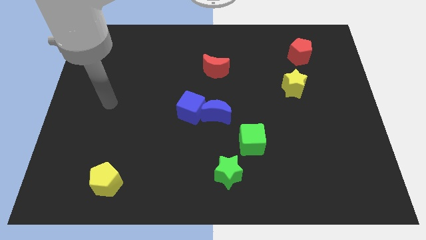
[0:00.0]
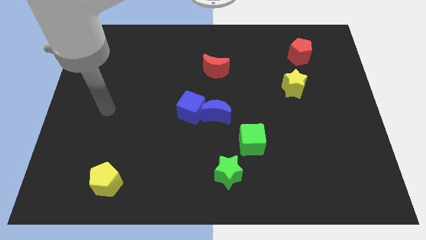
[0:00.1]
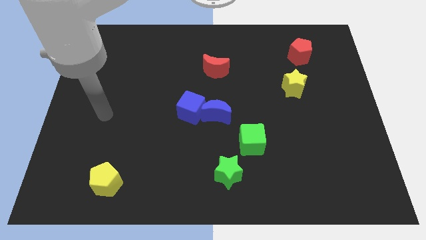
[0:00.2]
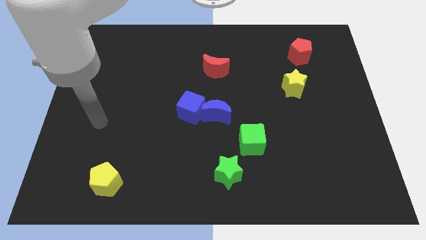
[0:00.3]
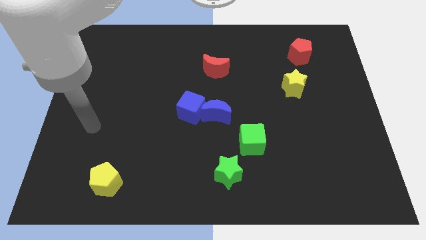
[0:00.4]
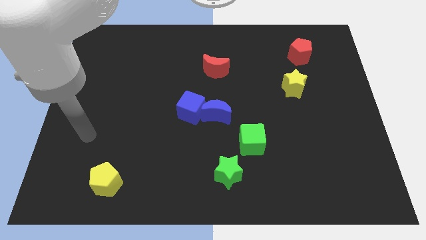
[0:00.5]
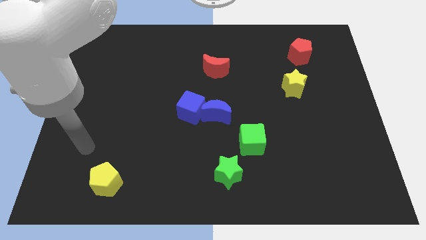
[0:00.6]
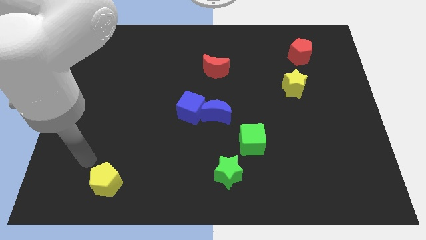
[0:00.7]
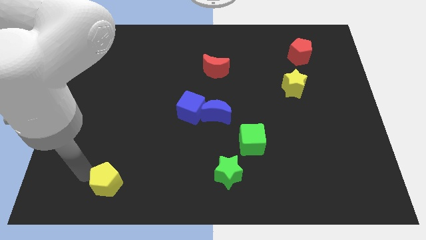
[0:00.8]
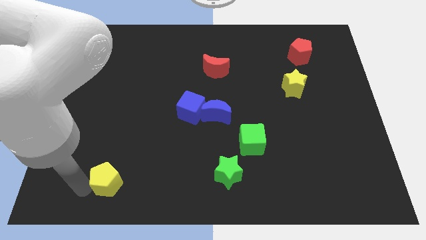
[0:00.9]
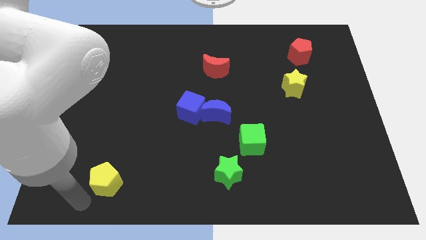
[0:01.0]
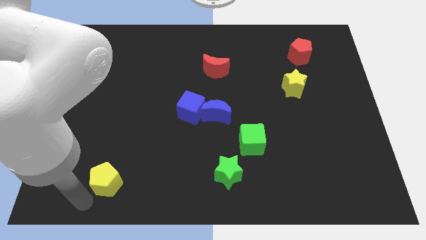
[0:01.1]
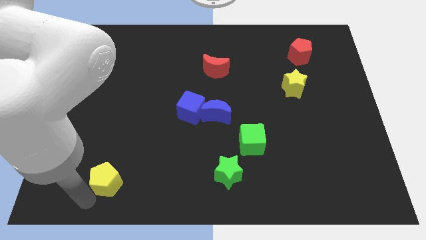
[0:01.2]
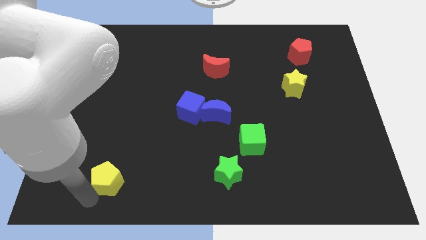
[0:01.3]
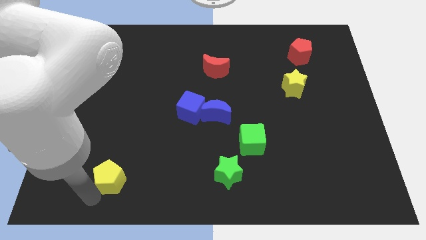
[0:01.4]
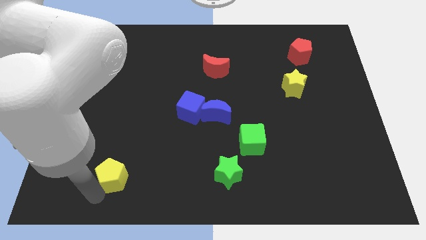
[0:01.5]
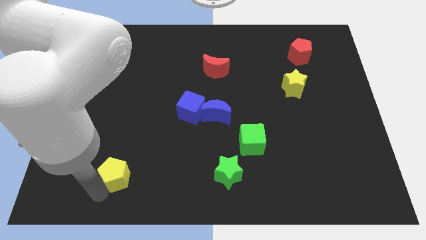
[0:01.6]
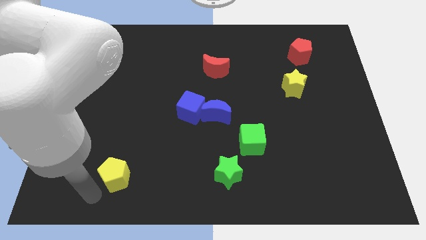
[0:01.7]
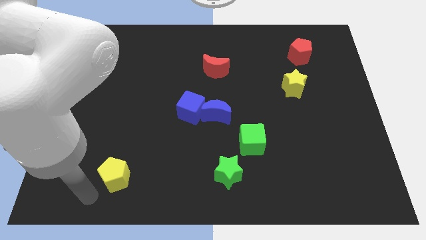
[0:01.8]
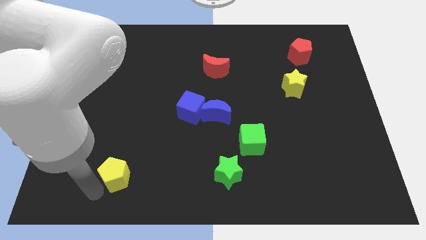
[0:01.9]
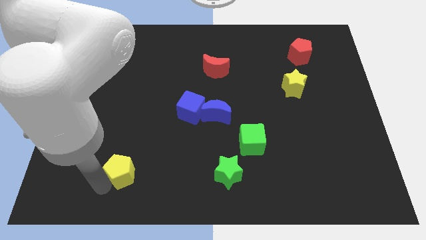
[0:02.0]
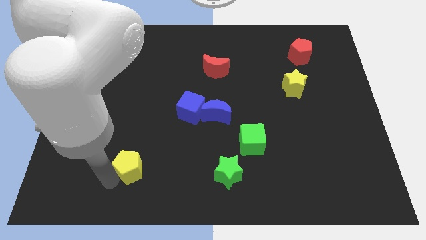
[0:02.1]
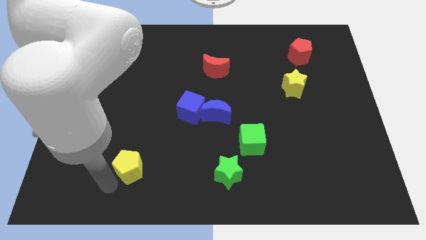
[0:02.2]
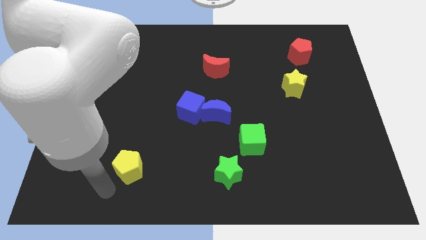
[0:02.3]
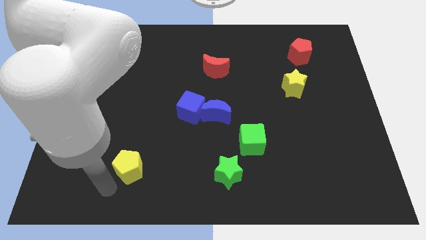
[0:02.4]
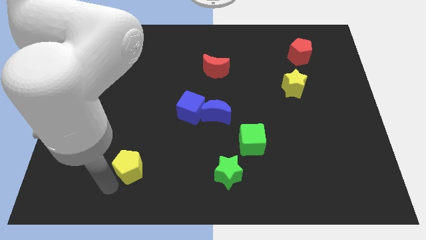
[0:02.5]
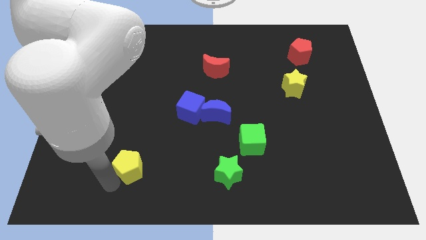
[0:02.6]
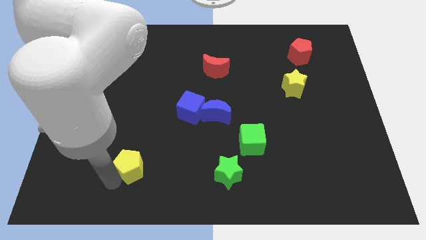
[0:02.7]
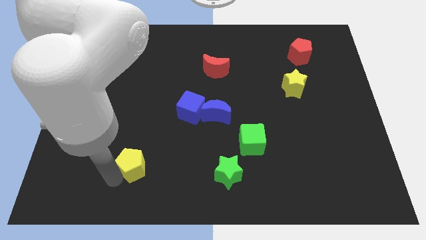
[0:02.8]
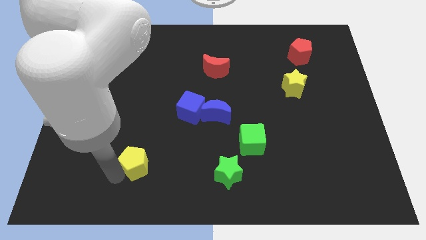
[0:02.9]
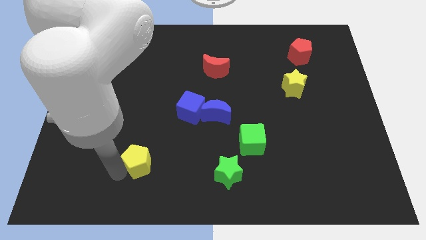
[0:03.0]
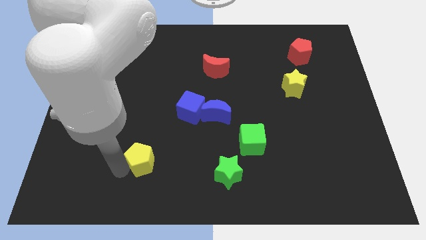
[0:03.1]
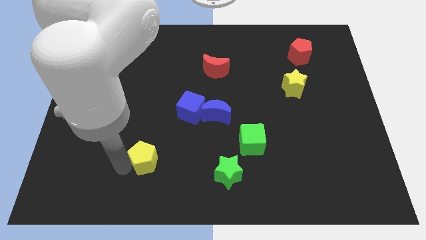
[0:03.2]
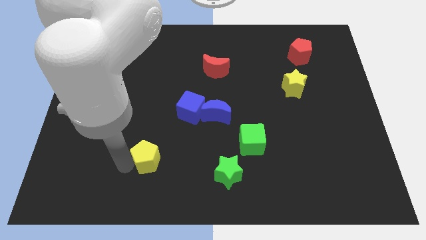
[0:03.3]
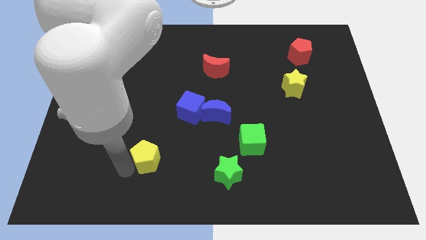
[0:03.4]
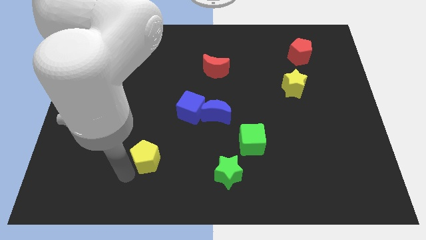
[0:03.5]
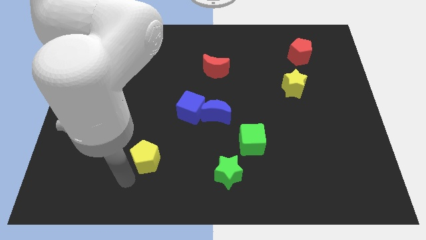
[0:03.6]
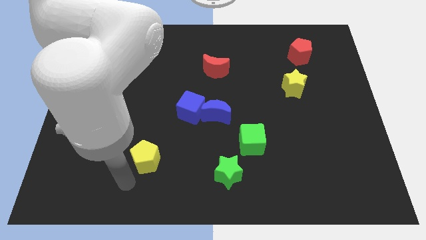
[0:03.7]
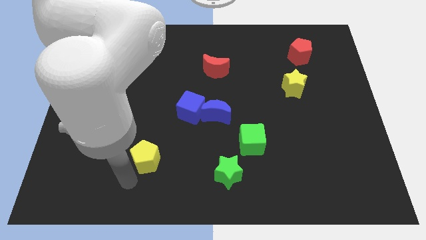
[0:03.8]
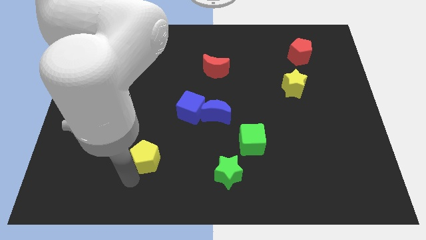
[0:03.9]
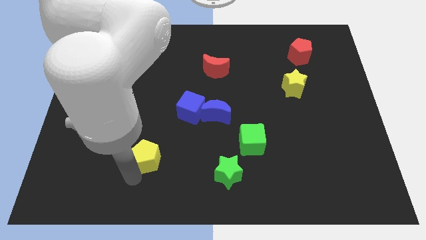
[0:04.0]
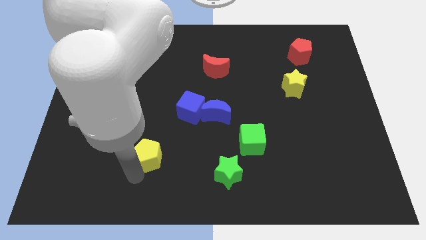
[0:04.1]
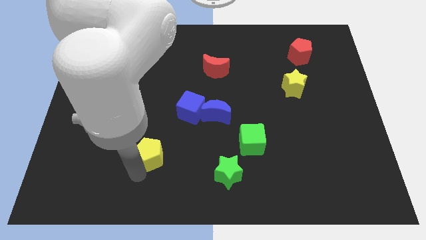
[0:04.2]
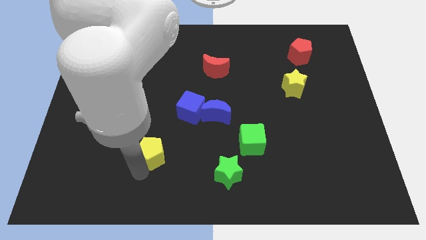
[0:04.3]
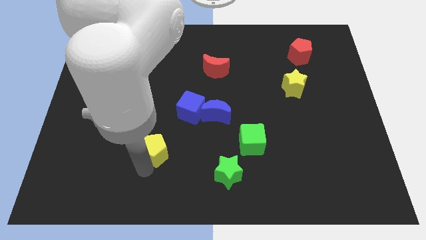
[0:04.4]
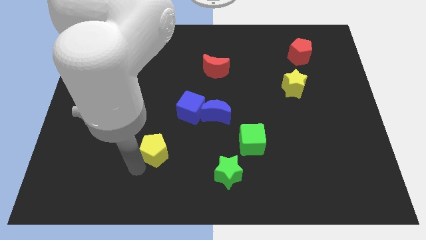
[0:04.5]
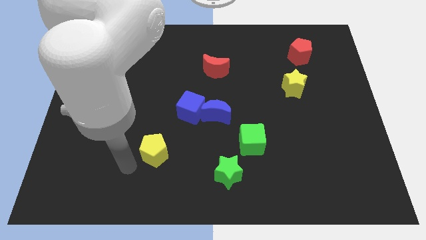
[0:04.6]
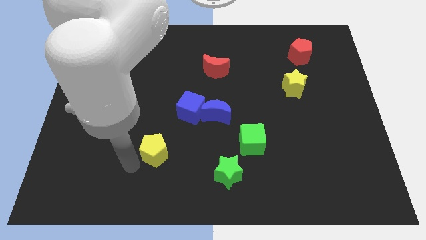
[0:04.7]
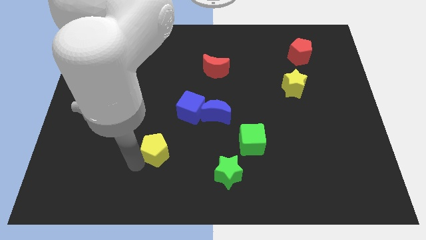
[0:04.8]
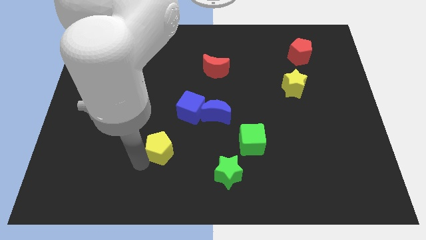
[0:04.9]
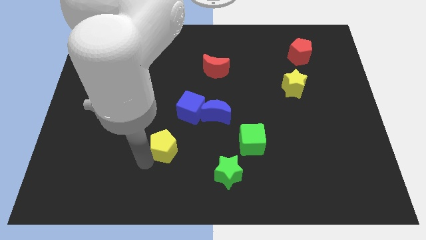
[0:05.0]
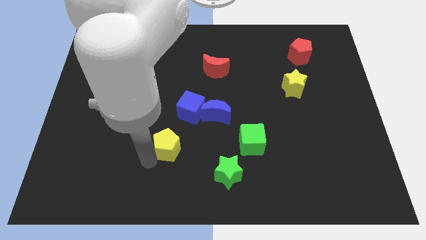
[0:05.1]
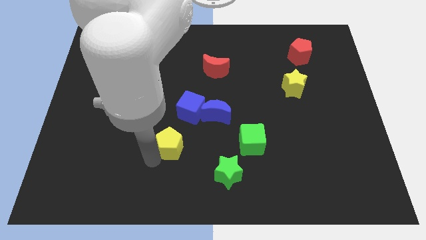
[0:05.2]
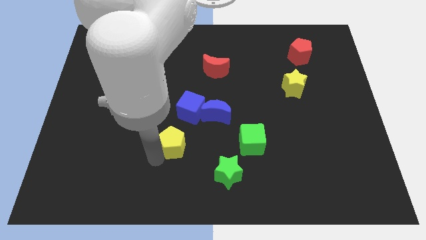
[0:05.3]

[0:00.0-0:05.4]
move the yellow pentagon to the bottom left side of the blue moon

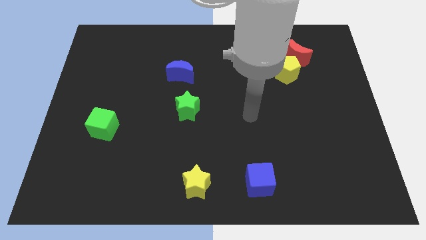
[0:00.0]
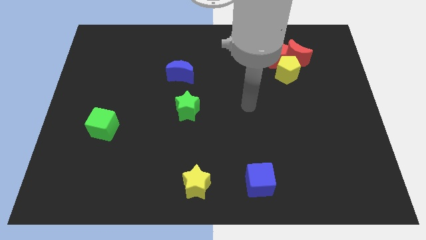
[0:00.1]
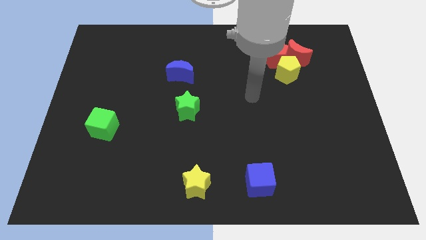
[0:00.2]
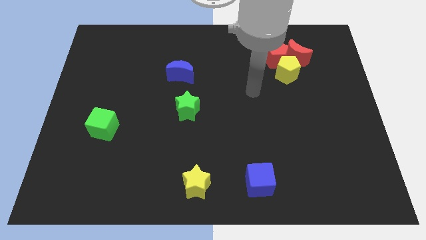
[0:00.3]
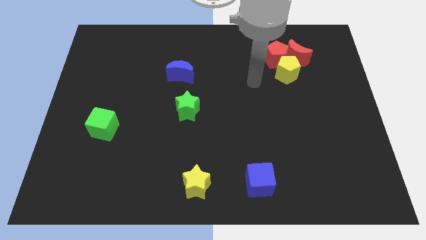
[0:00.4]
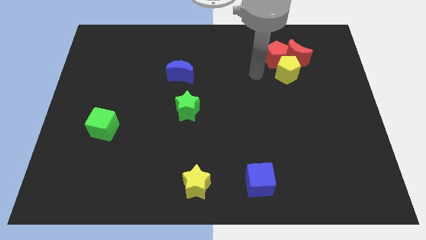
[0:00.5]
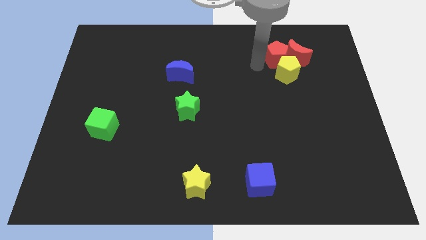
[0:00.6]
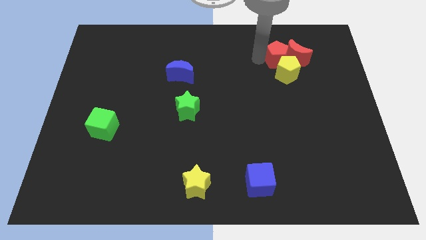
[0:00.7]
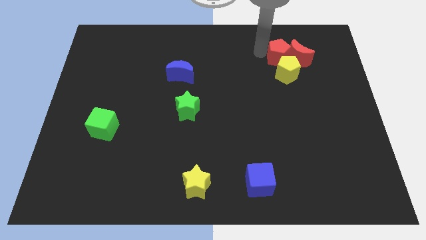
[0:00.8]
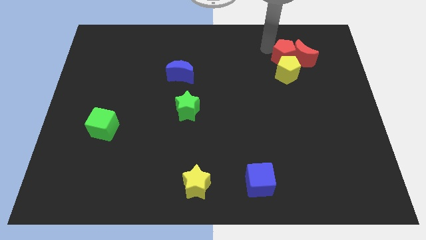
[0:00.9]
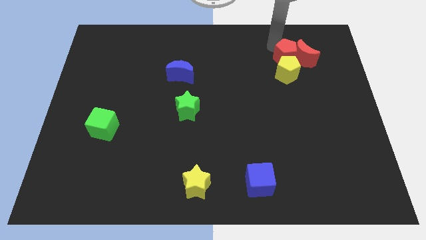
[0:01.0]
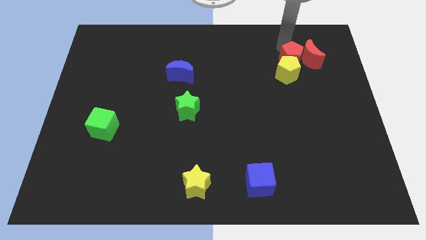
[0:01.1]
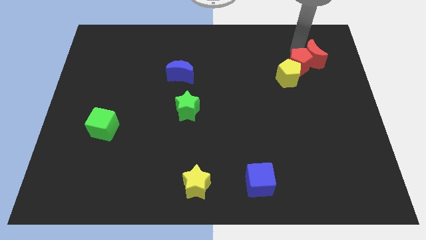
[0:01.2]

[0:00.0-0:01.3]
slide the red pentagon to the bottom of the red moon
